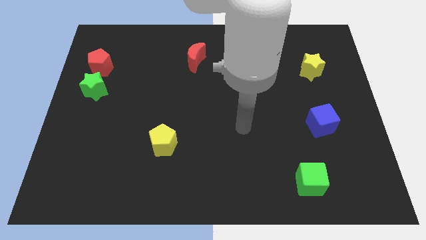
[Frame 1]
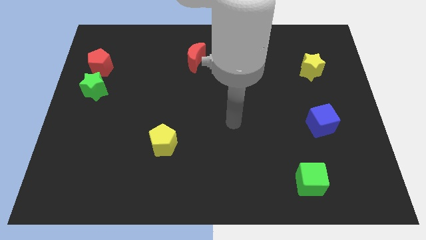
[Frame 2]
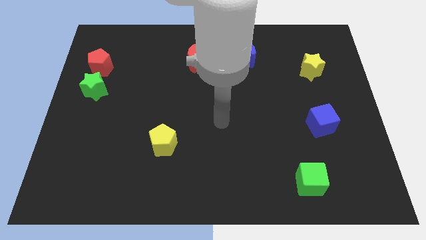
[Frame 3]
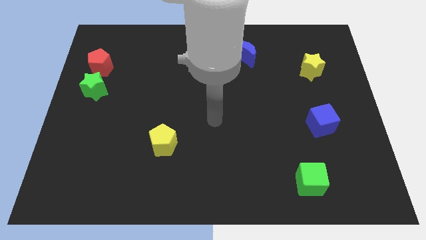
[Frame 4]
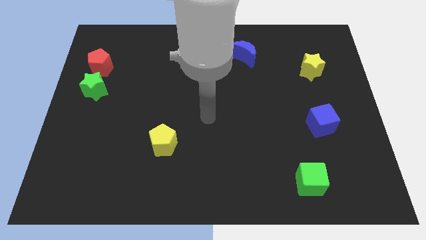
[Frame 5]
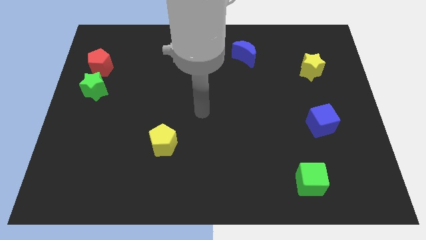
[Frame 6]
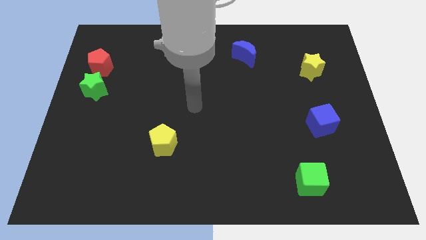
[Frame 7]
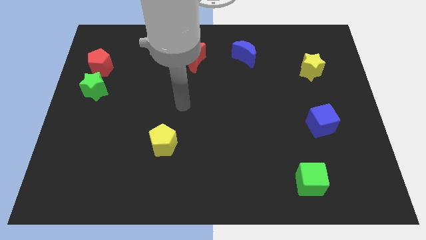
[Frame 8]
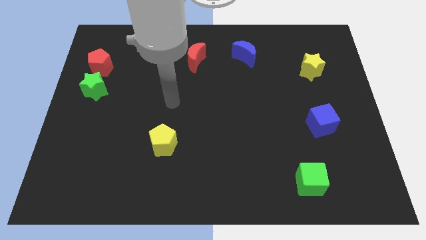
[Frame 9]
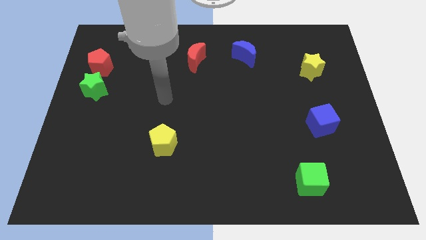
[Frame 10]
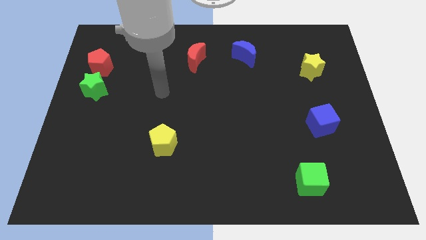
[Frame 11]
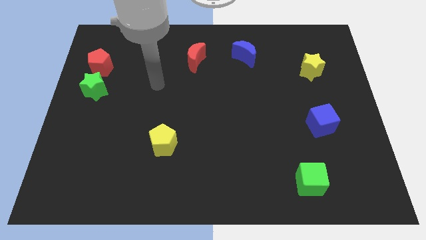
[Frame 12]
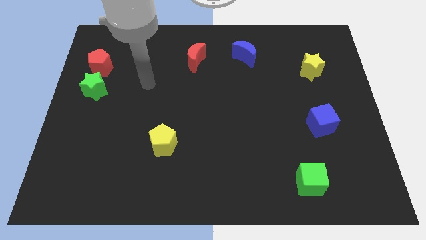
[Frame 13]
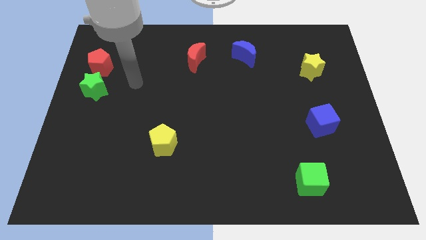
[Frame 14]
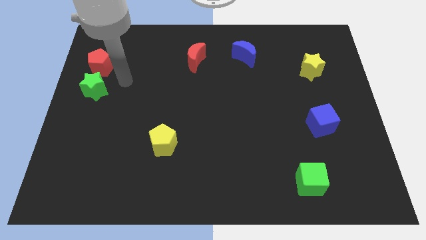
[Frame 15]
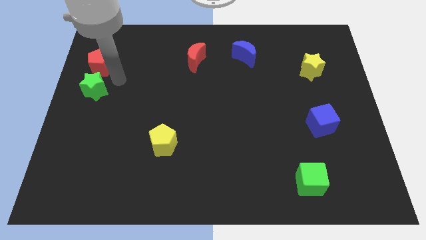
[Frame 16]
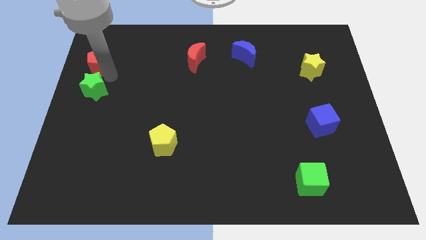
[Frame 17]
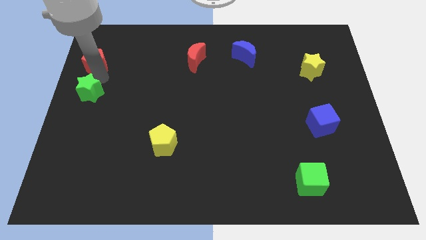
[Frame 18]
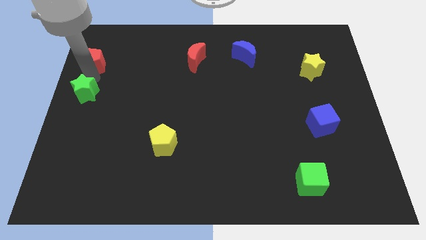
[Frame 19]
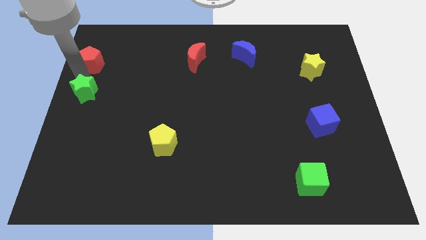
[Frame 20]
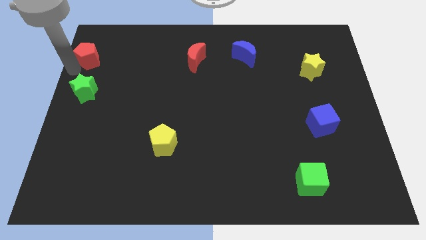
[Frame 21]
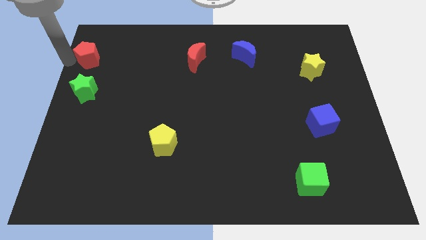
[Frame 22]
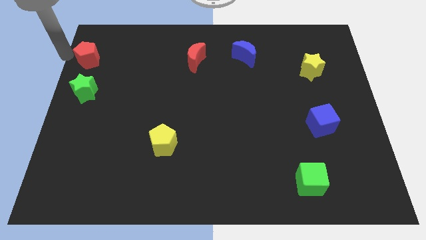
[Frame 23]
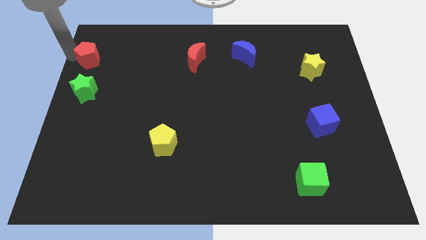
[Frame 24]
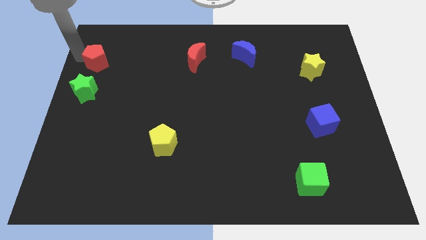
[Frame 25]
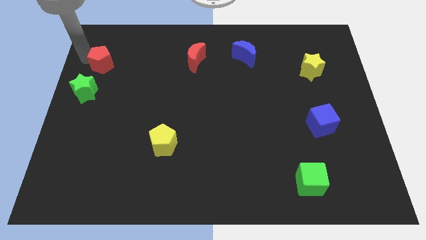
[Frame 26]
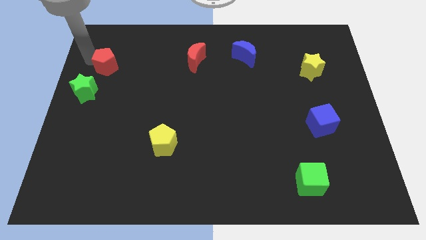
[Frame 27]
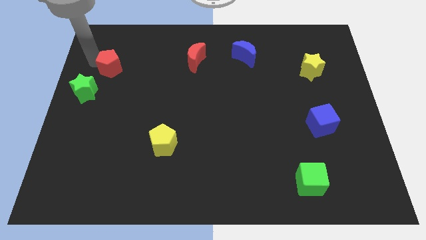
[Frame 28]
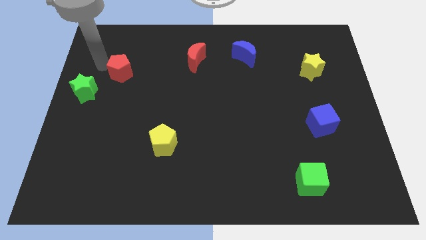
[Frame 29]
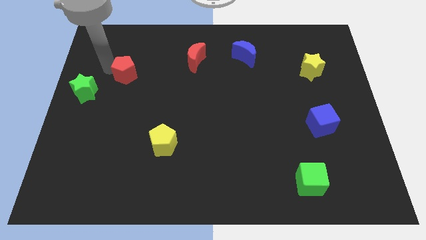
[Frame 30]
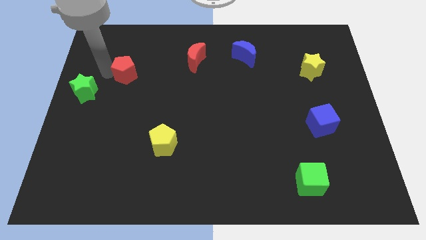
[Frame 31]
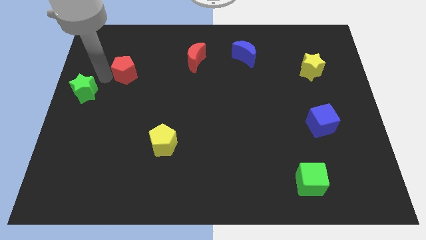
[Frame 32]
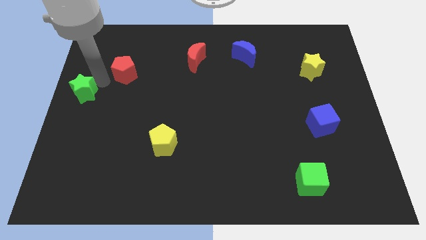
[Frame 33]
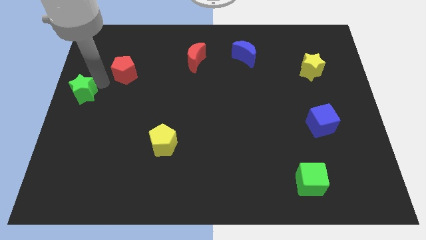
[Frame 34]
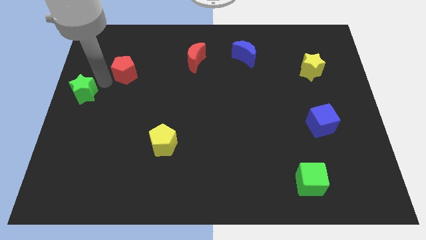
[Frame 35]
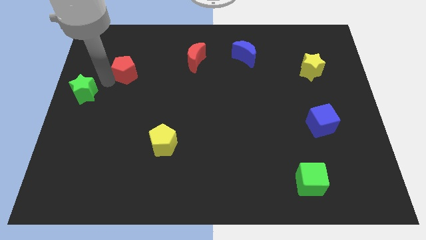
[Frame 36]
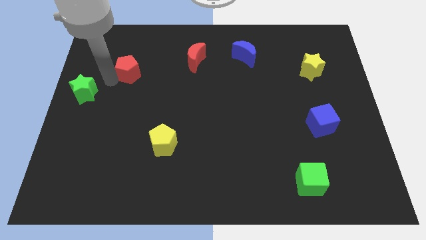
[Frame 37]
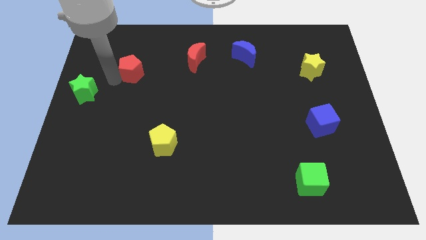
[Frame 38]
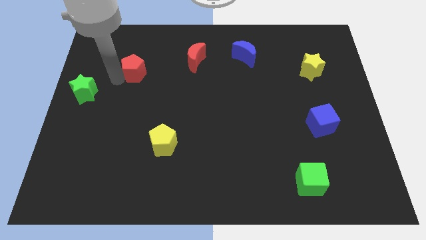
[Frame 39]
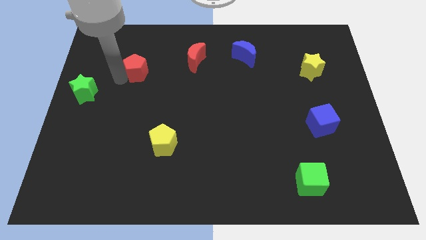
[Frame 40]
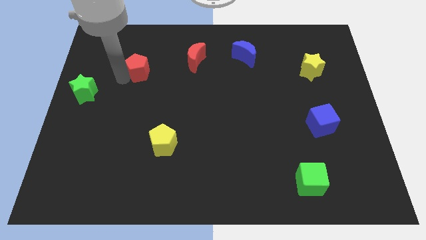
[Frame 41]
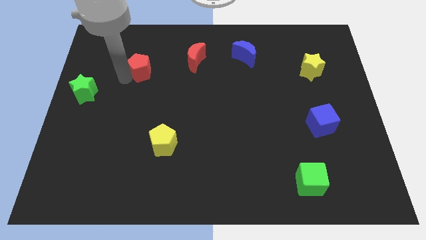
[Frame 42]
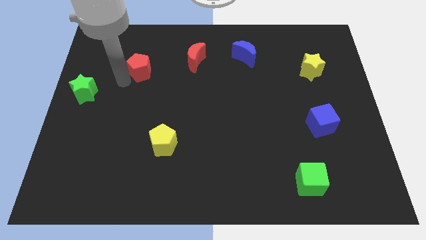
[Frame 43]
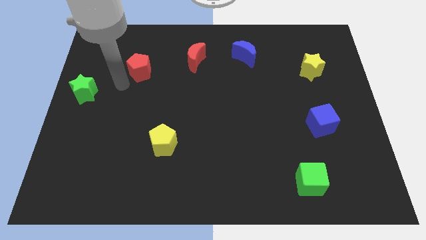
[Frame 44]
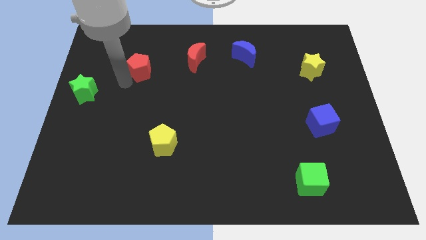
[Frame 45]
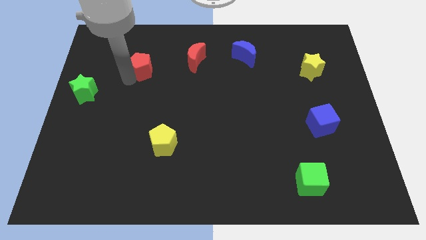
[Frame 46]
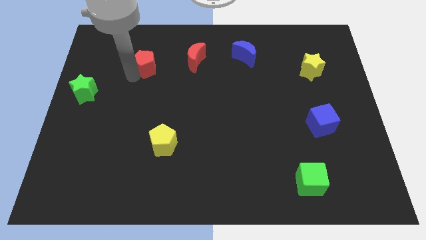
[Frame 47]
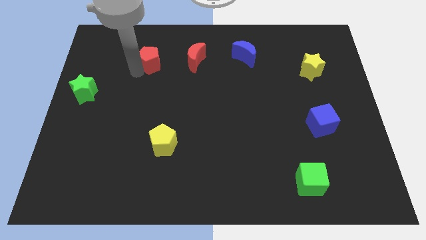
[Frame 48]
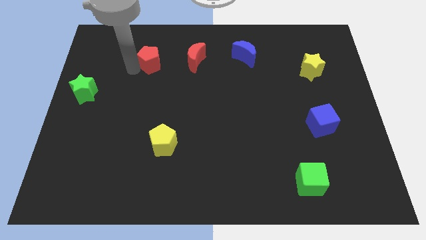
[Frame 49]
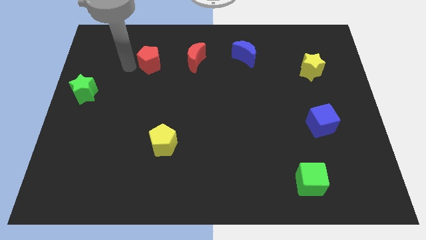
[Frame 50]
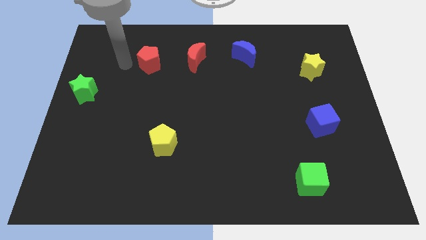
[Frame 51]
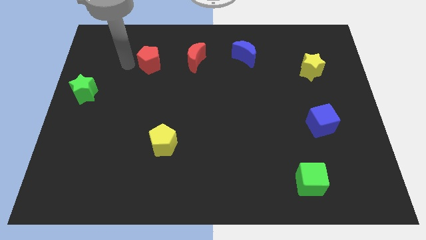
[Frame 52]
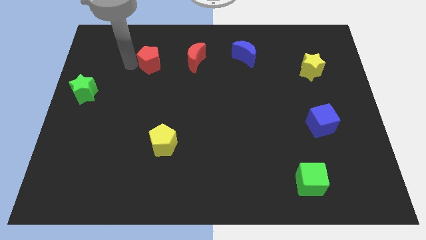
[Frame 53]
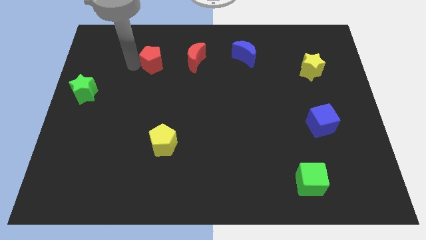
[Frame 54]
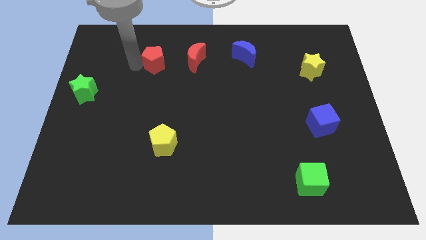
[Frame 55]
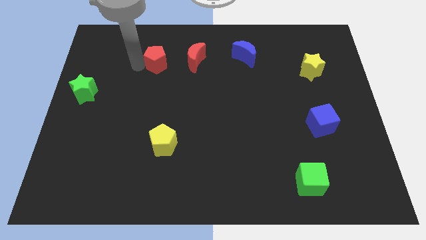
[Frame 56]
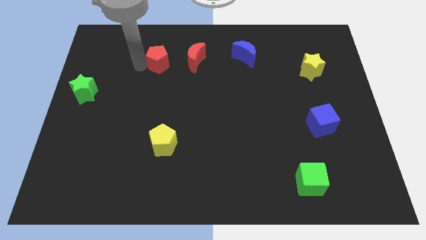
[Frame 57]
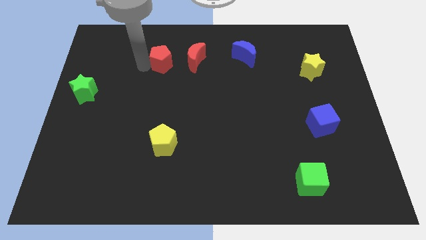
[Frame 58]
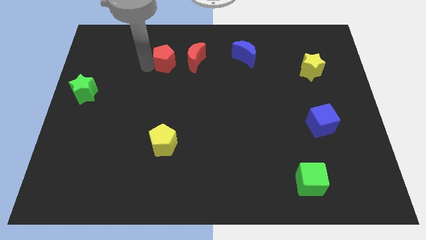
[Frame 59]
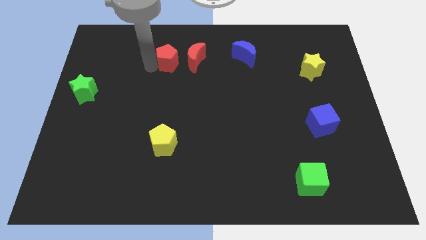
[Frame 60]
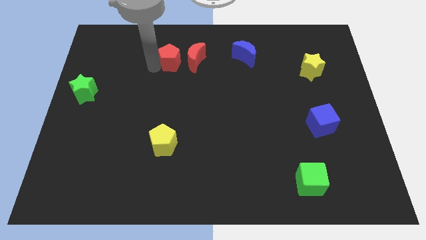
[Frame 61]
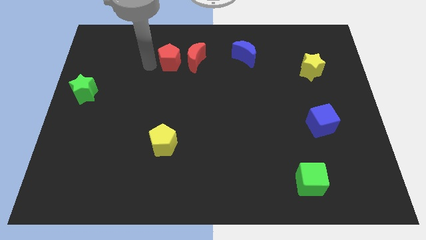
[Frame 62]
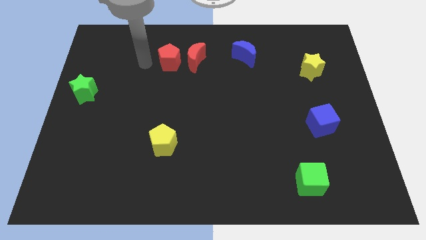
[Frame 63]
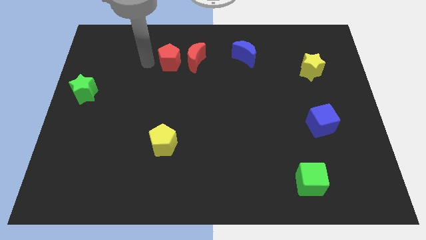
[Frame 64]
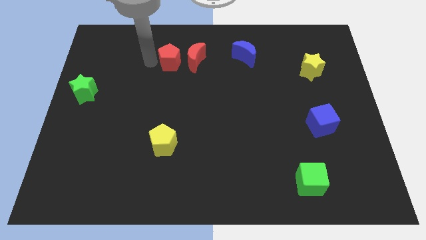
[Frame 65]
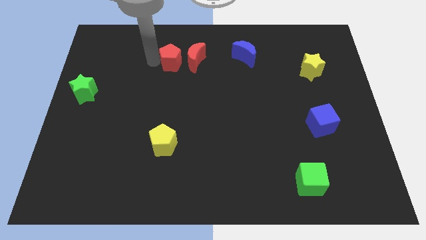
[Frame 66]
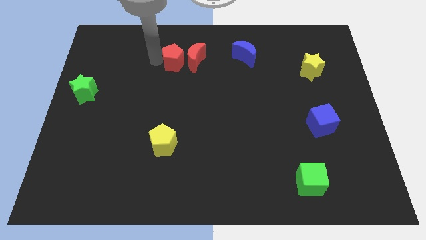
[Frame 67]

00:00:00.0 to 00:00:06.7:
slide the red pentagon next to the red moon

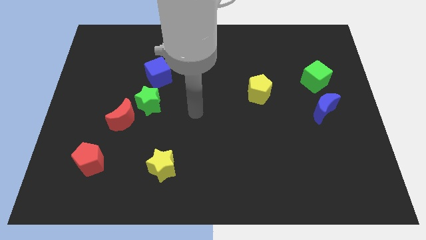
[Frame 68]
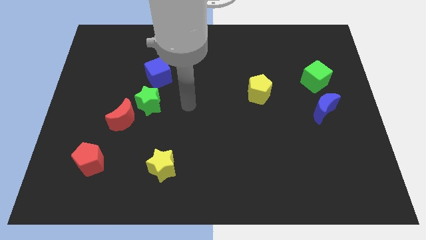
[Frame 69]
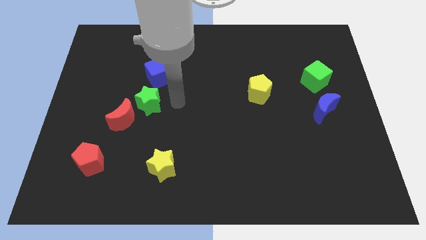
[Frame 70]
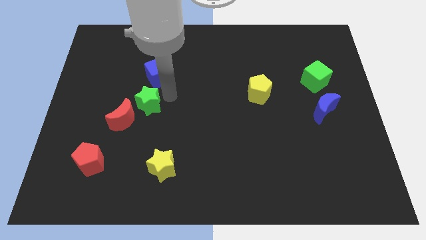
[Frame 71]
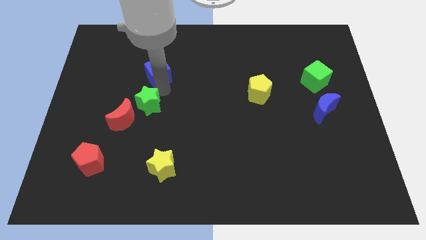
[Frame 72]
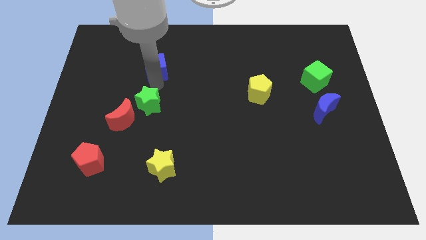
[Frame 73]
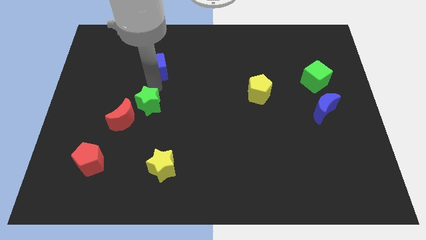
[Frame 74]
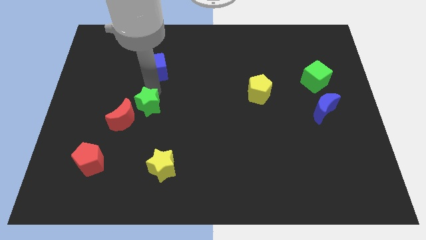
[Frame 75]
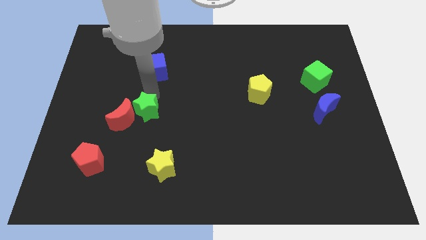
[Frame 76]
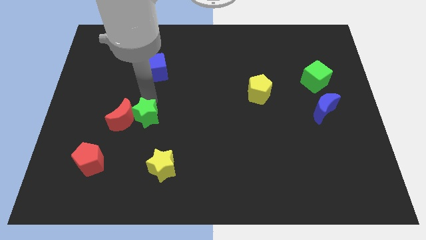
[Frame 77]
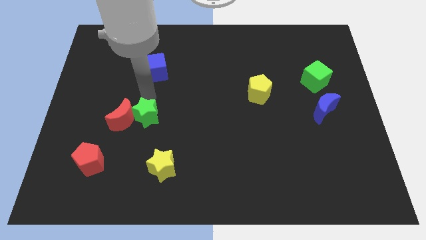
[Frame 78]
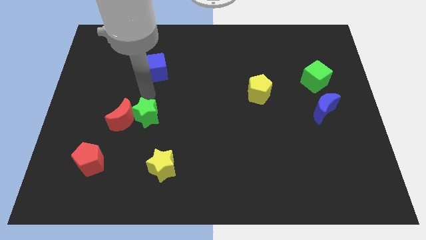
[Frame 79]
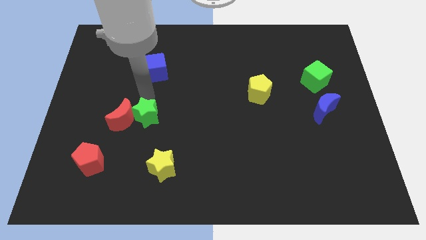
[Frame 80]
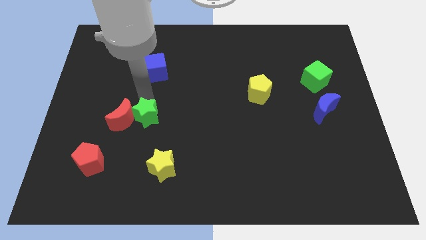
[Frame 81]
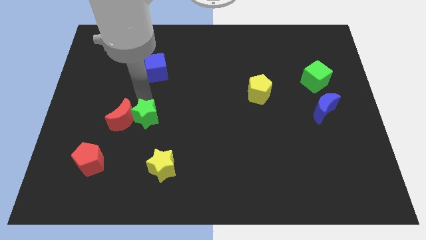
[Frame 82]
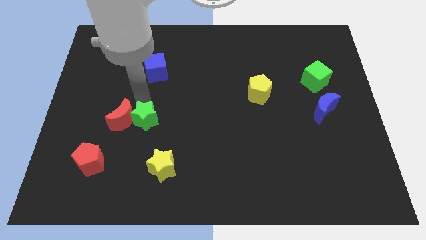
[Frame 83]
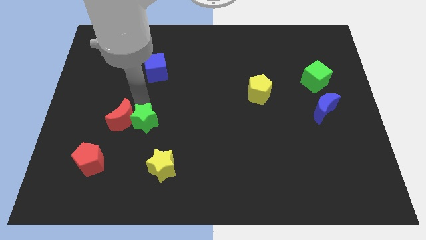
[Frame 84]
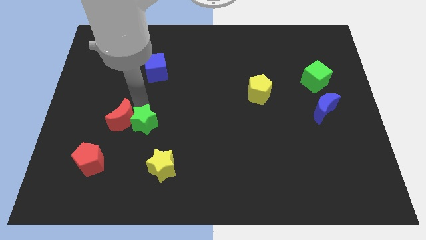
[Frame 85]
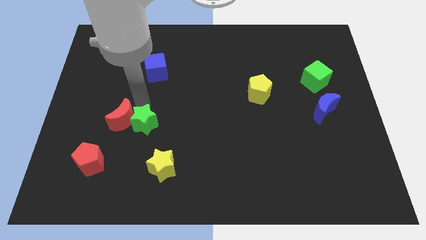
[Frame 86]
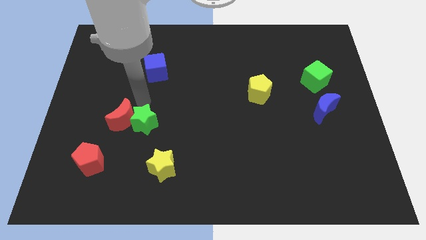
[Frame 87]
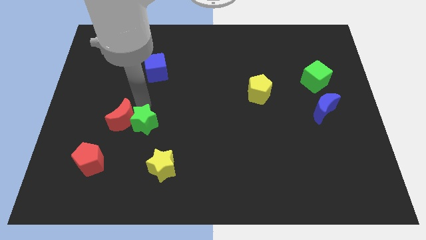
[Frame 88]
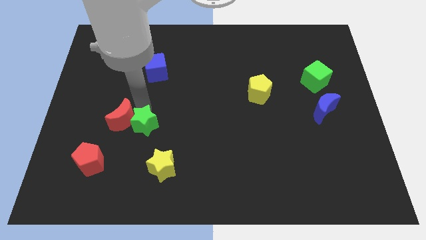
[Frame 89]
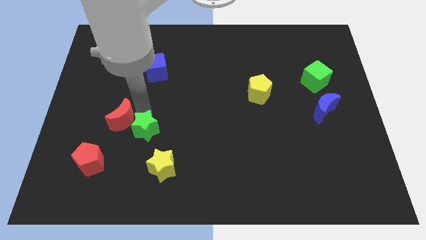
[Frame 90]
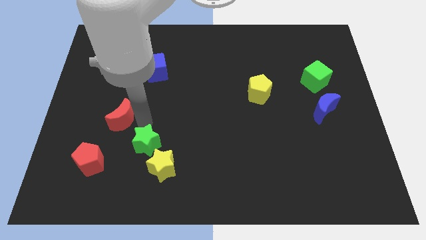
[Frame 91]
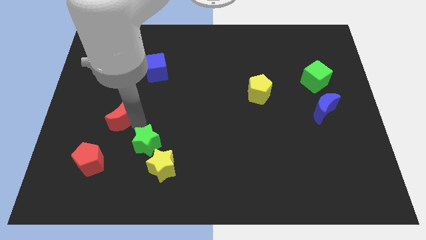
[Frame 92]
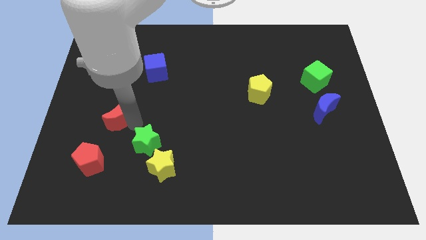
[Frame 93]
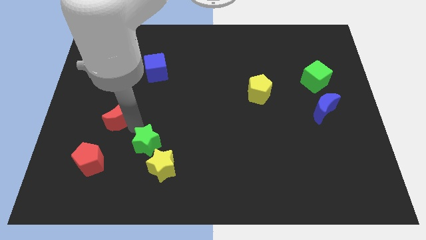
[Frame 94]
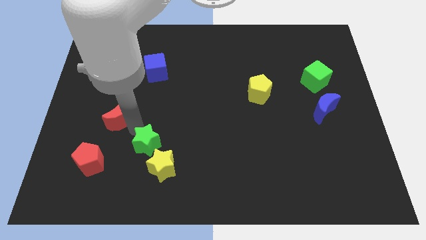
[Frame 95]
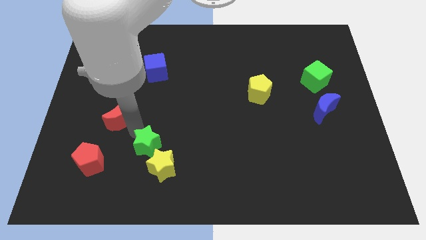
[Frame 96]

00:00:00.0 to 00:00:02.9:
slide the green star next to the yellow star
